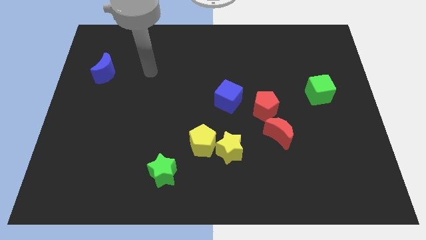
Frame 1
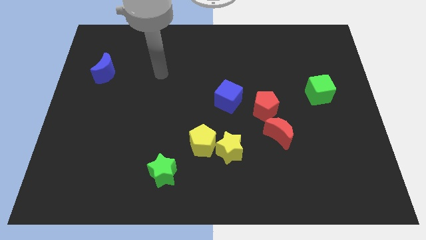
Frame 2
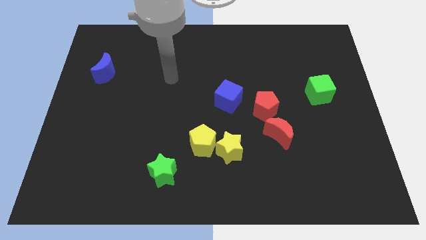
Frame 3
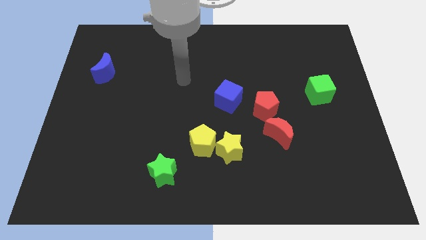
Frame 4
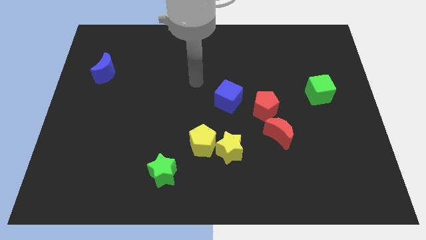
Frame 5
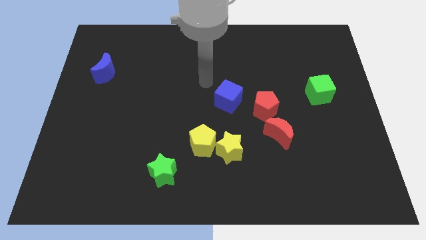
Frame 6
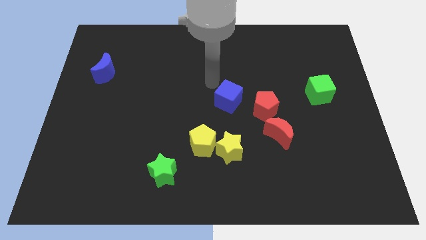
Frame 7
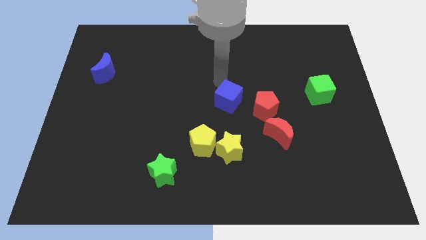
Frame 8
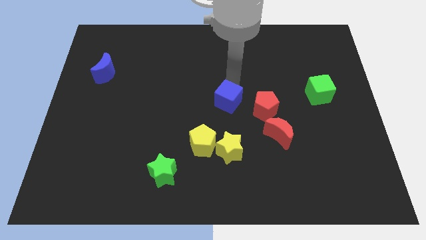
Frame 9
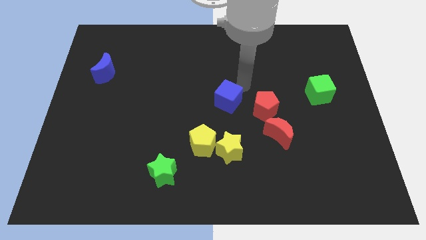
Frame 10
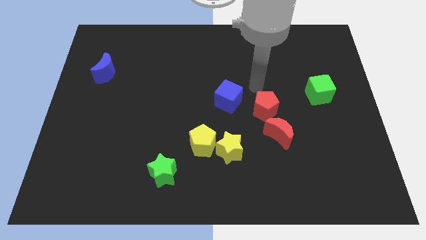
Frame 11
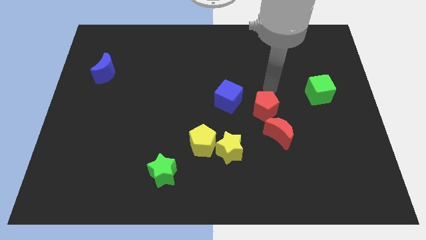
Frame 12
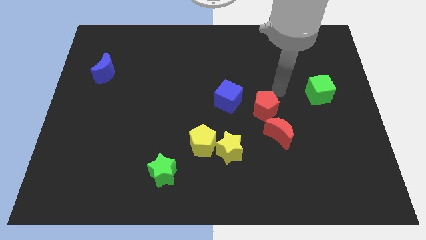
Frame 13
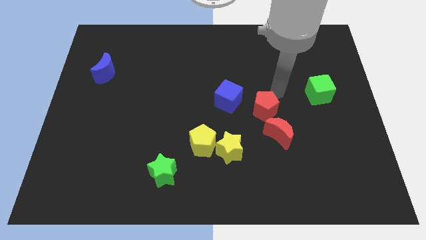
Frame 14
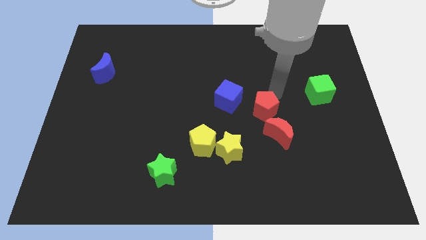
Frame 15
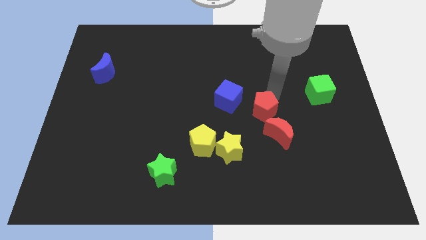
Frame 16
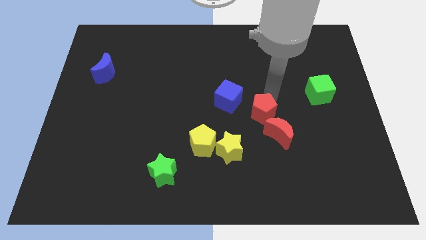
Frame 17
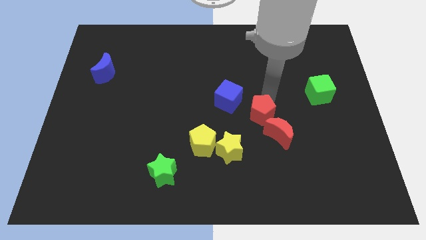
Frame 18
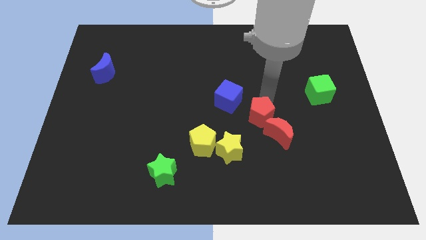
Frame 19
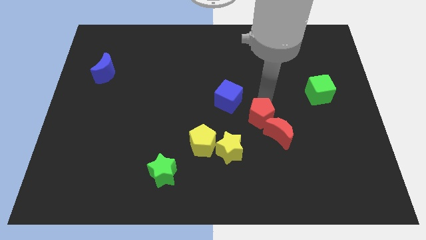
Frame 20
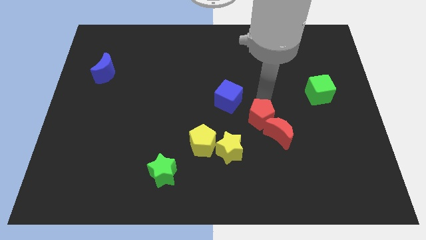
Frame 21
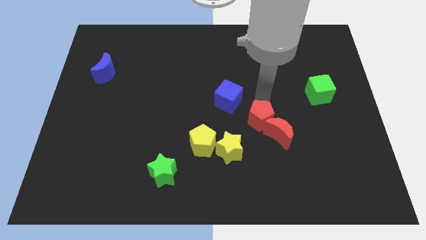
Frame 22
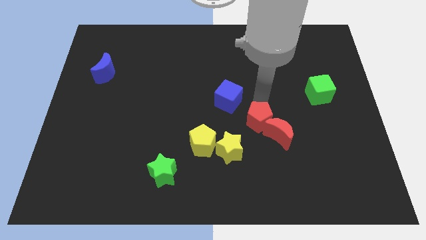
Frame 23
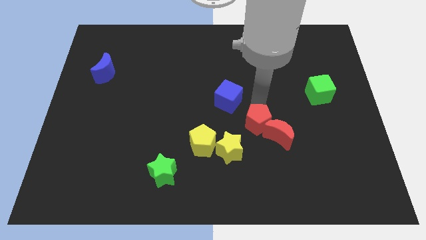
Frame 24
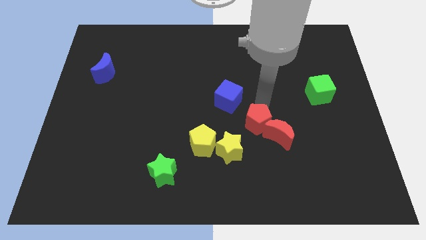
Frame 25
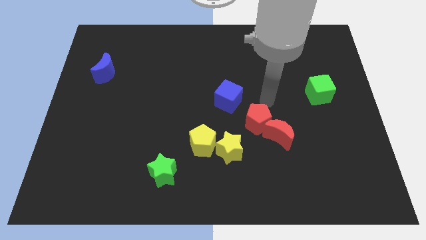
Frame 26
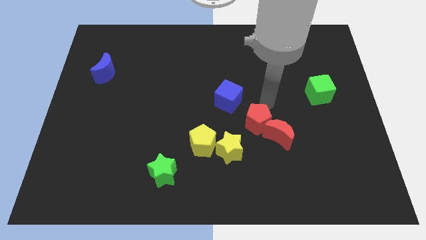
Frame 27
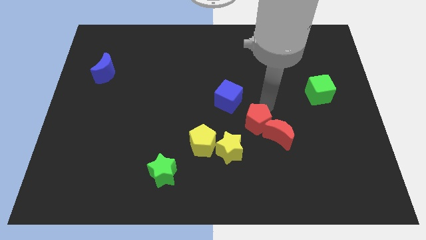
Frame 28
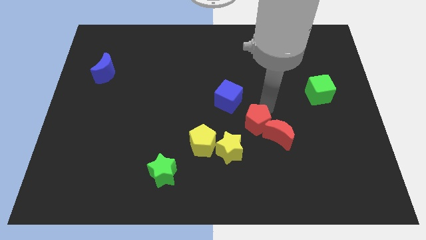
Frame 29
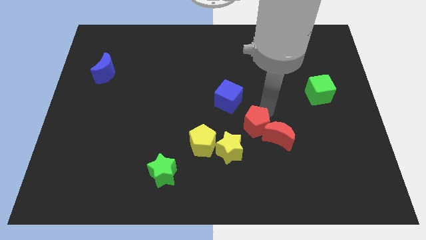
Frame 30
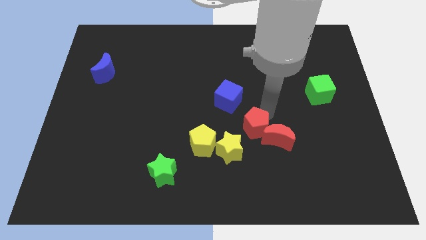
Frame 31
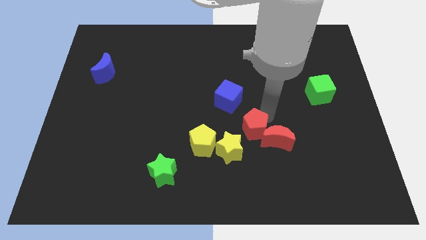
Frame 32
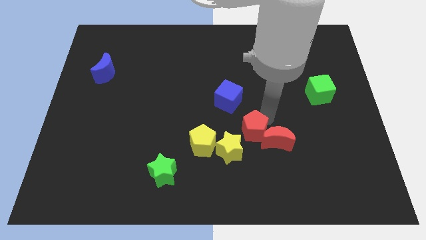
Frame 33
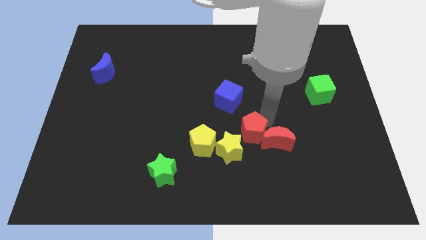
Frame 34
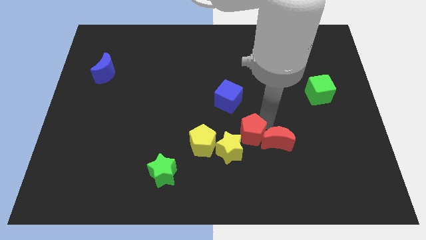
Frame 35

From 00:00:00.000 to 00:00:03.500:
slide the red pentagon down a bit

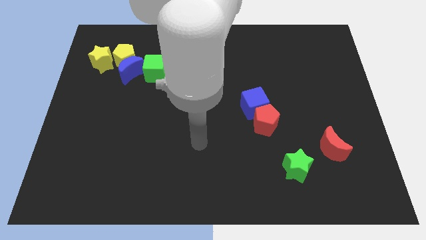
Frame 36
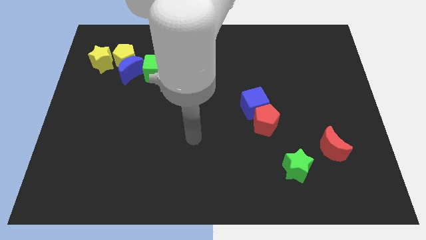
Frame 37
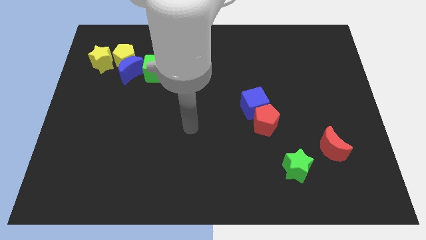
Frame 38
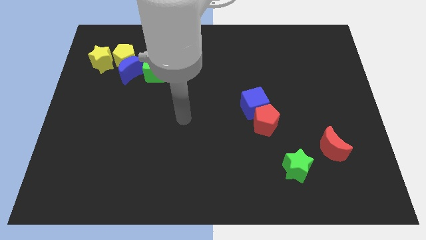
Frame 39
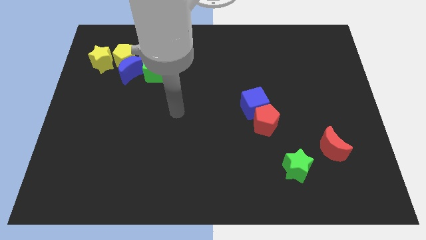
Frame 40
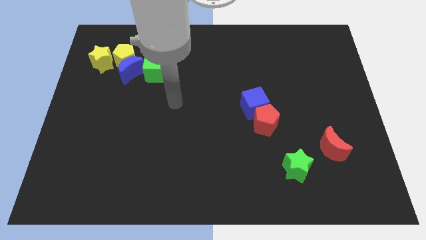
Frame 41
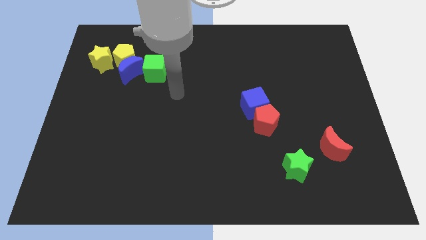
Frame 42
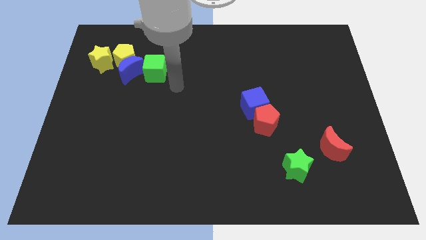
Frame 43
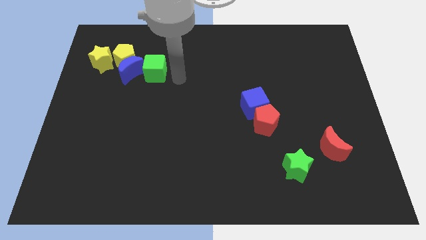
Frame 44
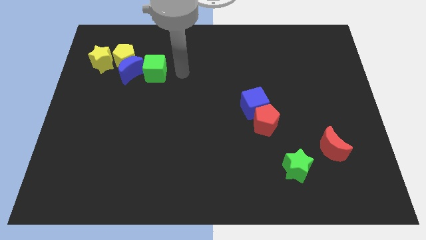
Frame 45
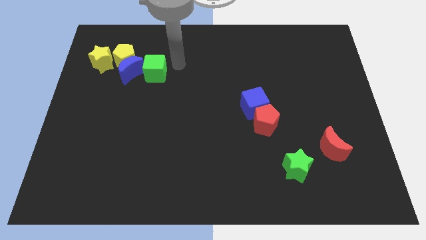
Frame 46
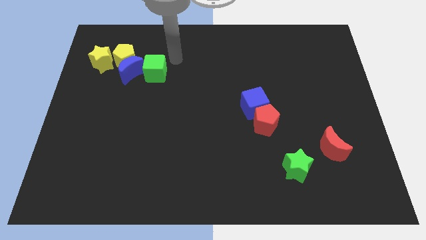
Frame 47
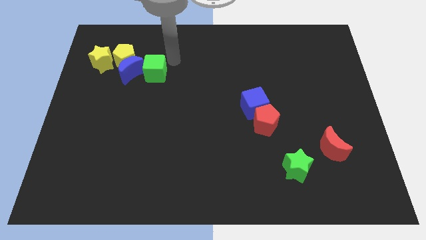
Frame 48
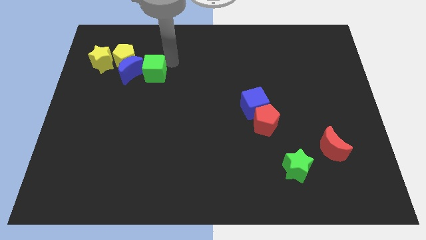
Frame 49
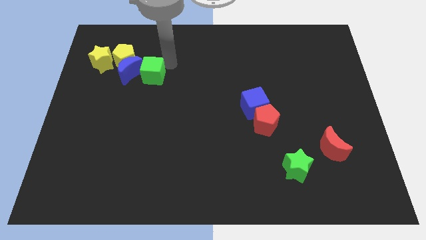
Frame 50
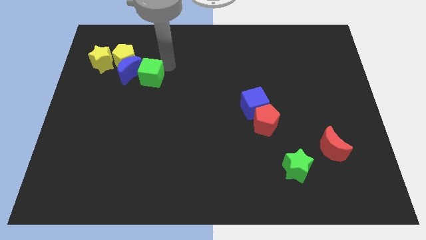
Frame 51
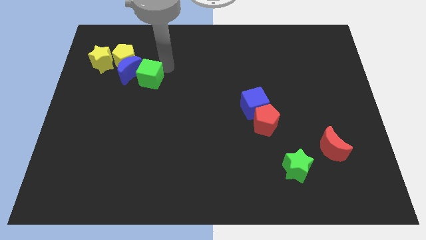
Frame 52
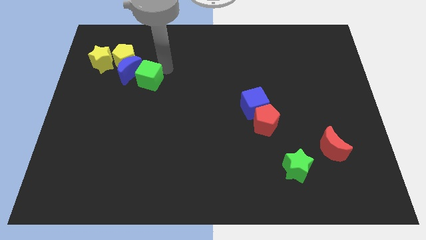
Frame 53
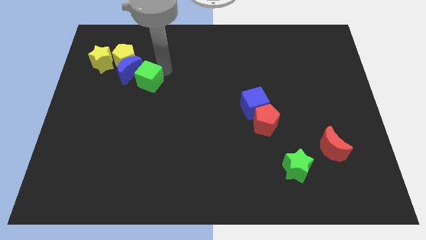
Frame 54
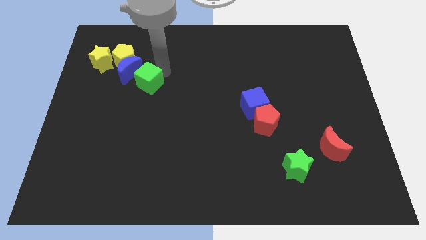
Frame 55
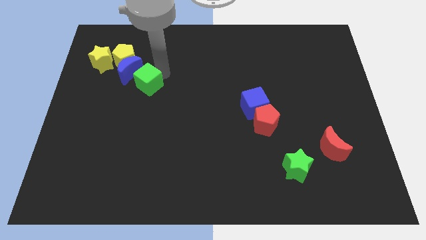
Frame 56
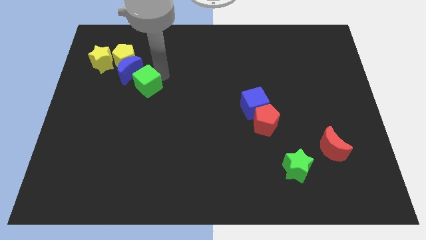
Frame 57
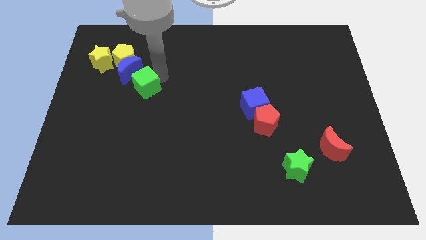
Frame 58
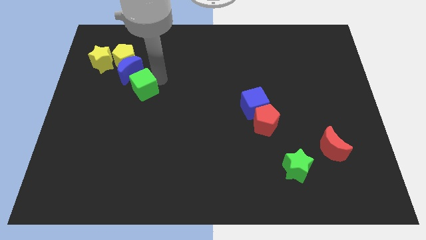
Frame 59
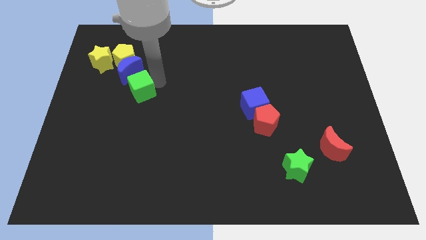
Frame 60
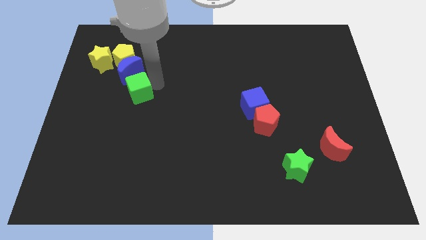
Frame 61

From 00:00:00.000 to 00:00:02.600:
slide the green cube downwards and then left a little

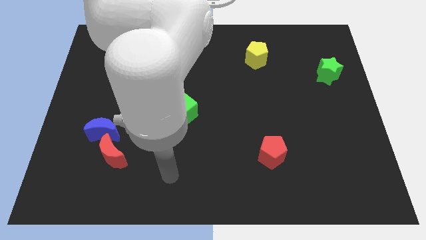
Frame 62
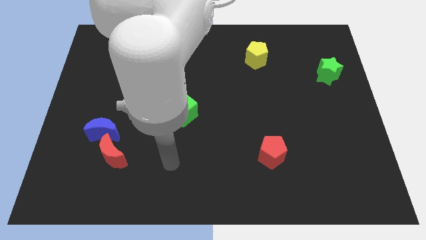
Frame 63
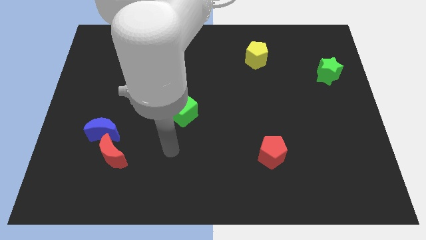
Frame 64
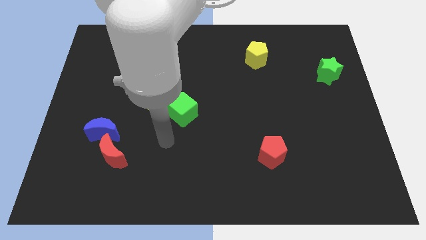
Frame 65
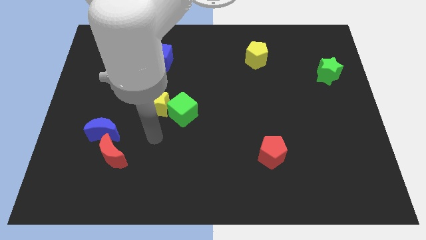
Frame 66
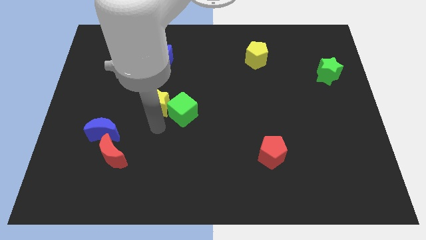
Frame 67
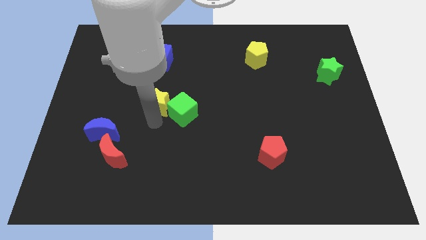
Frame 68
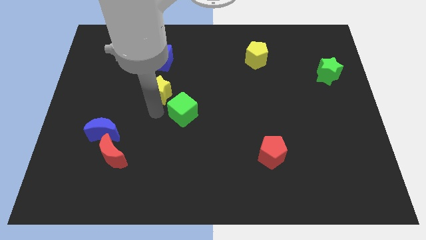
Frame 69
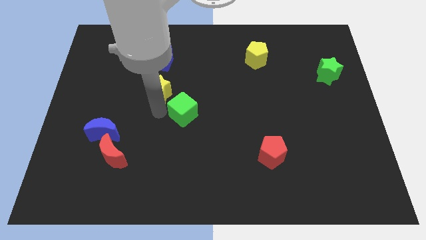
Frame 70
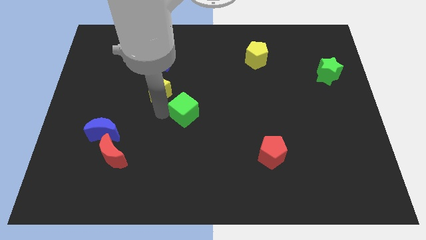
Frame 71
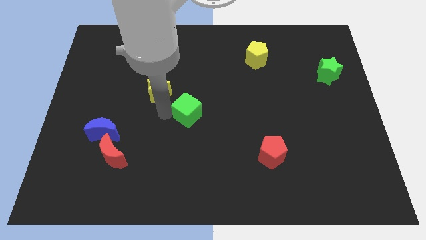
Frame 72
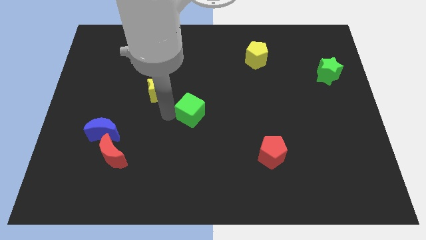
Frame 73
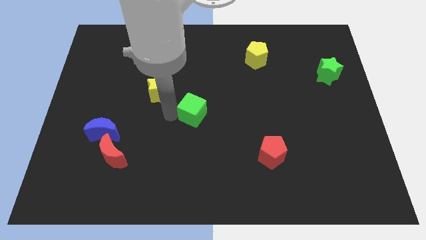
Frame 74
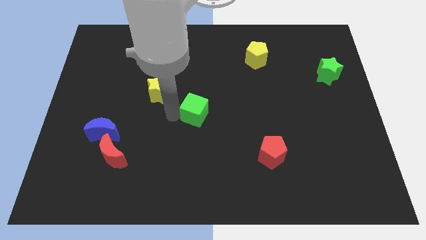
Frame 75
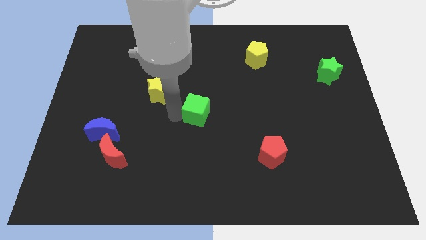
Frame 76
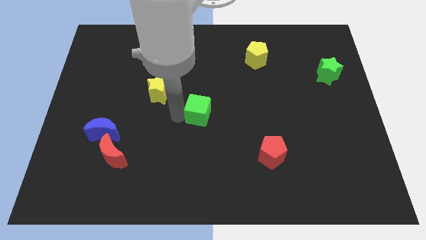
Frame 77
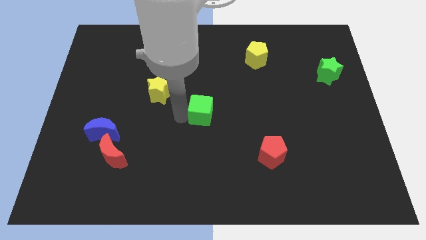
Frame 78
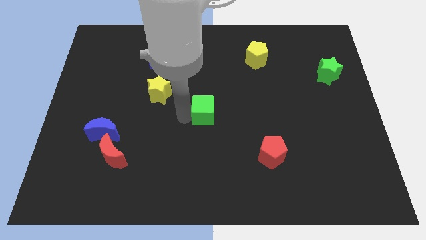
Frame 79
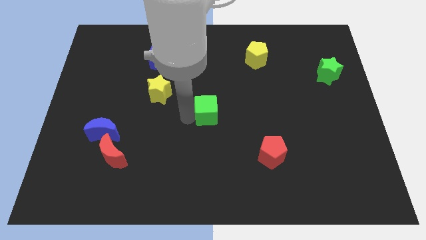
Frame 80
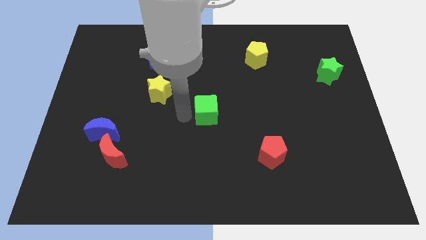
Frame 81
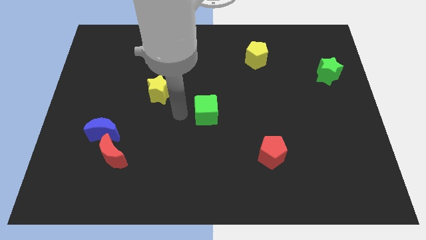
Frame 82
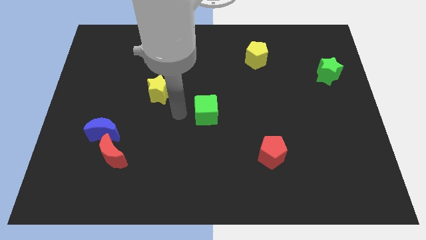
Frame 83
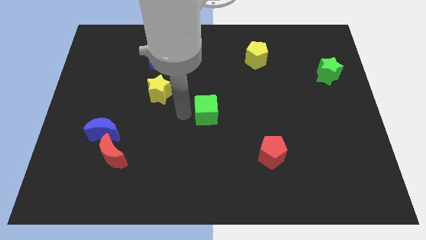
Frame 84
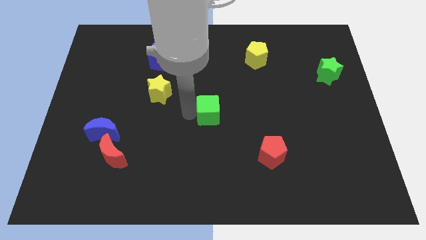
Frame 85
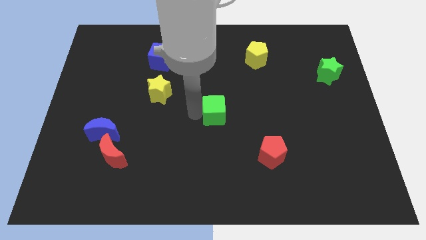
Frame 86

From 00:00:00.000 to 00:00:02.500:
slide the green cube a bit to the right
